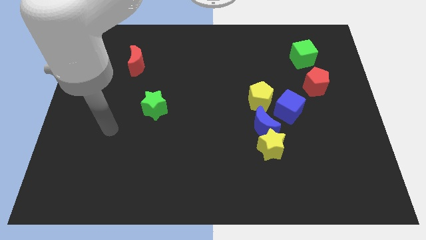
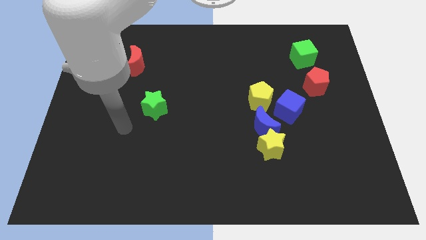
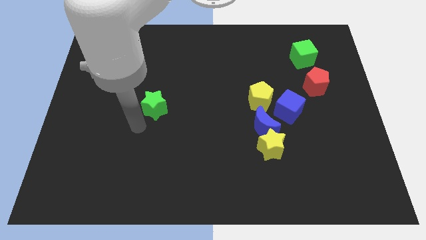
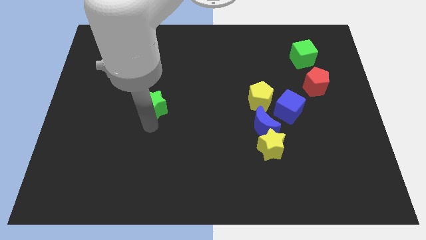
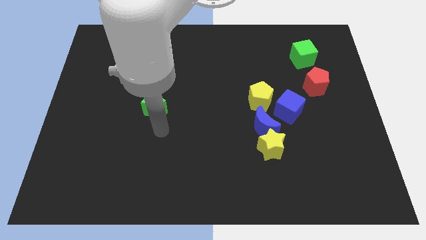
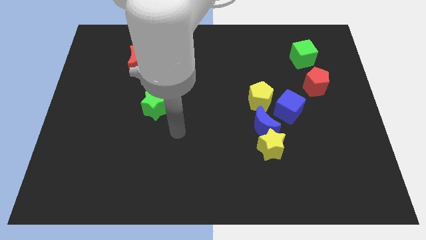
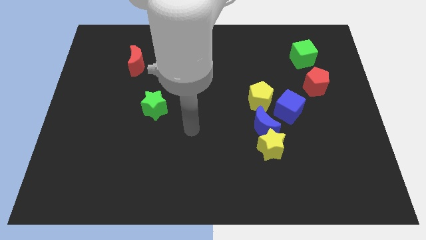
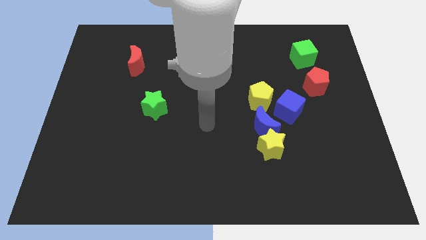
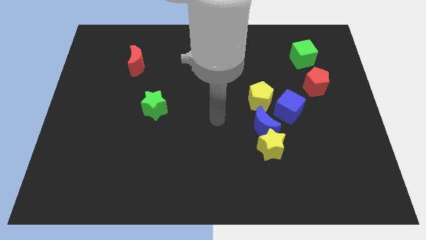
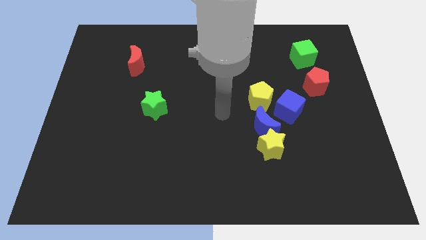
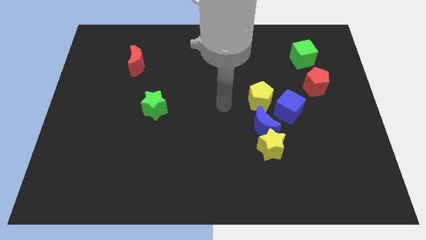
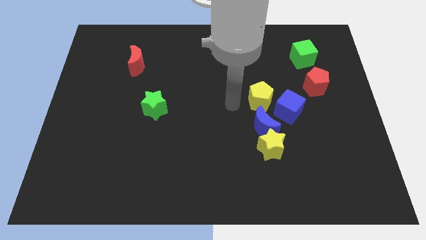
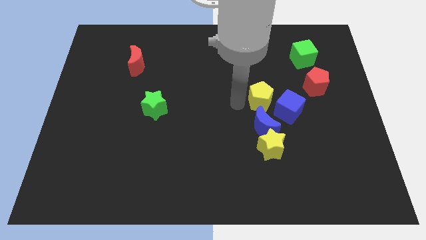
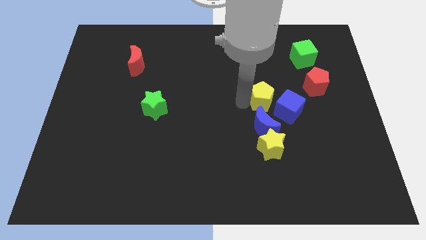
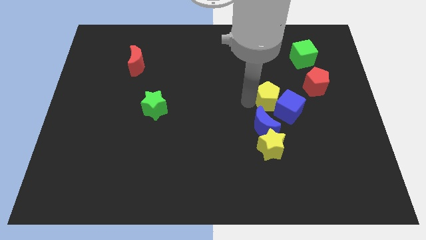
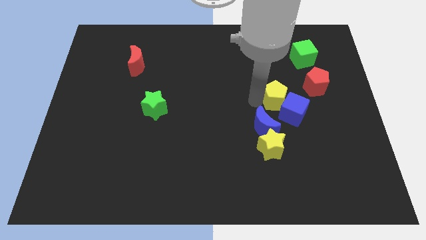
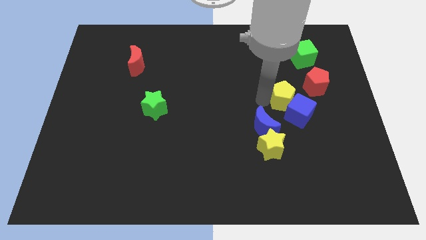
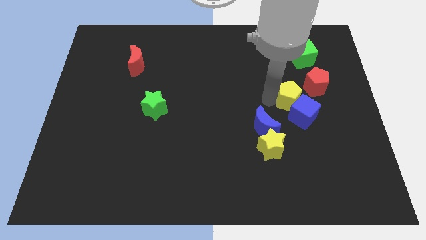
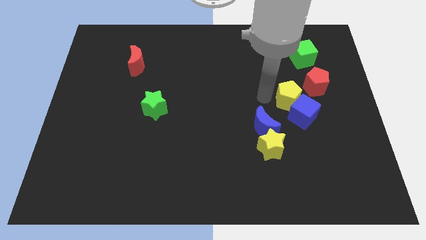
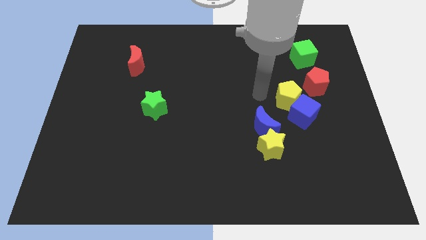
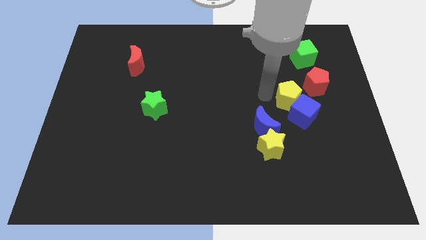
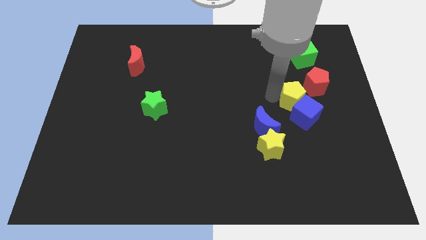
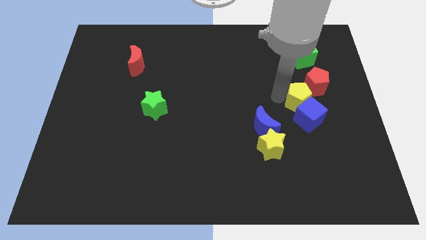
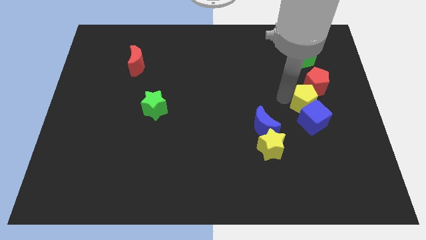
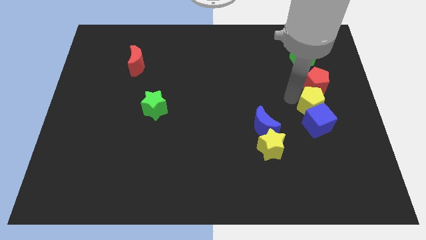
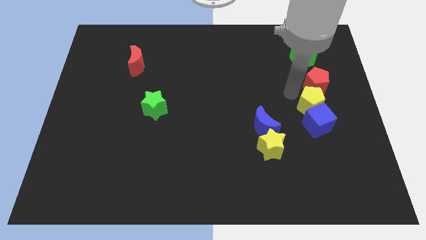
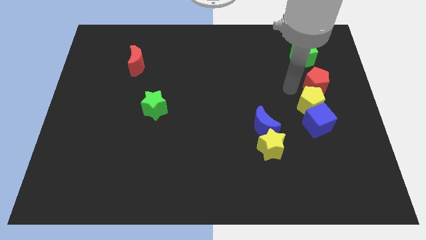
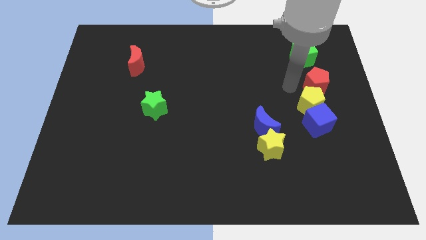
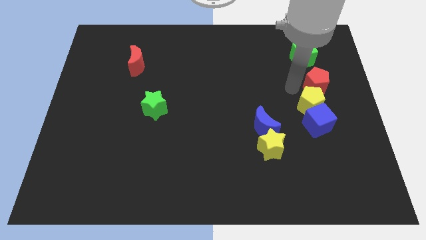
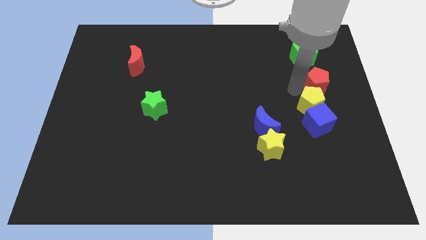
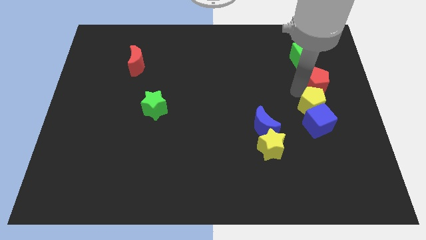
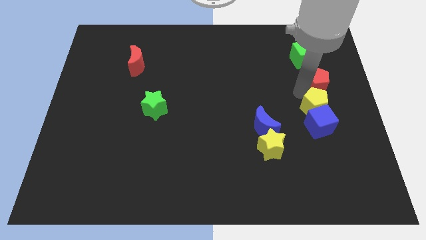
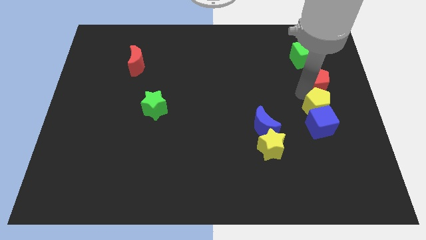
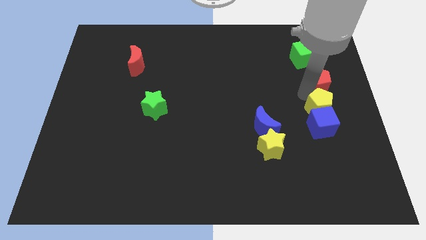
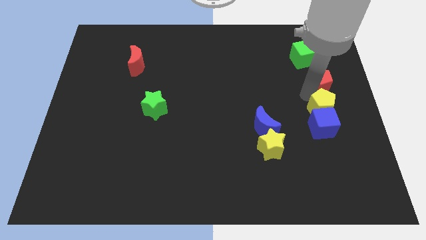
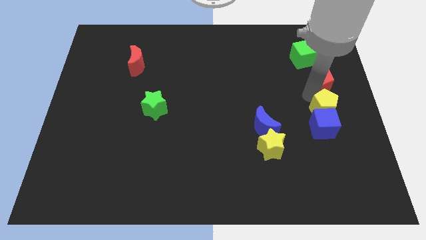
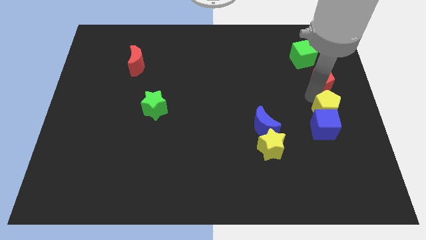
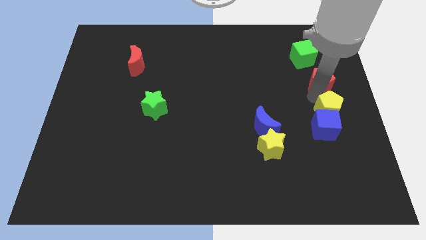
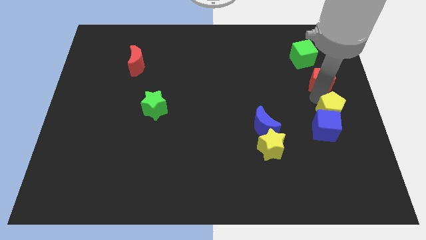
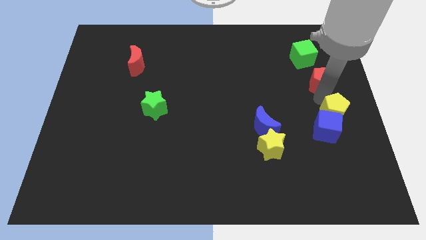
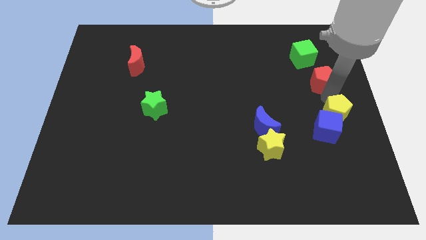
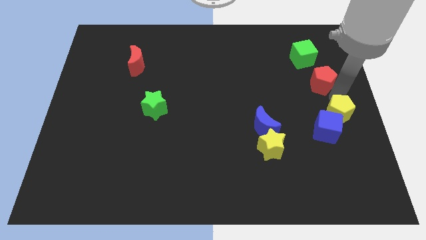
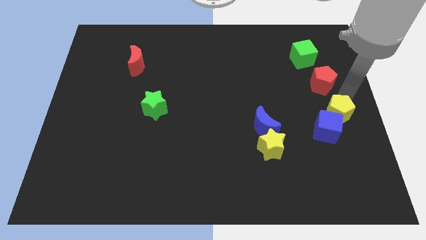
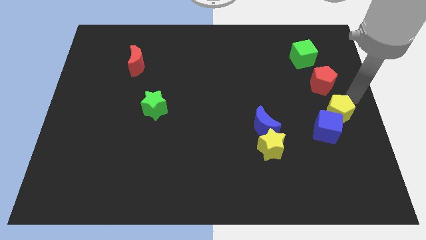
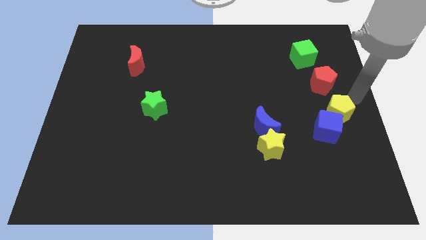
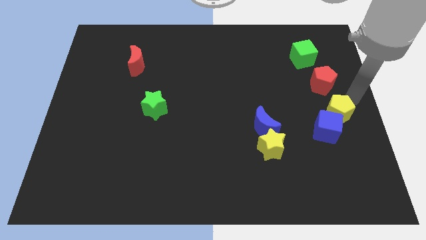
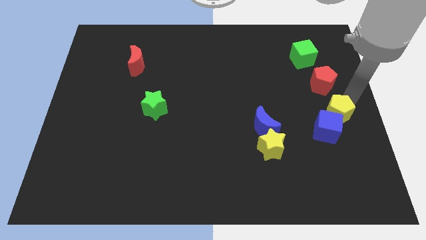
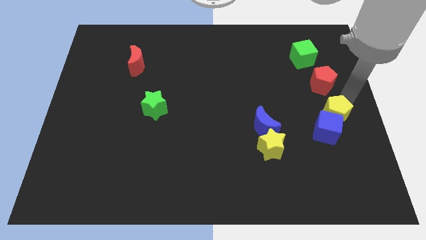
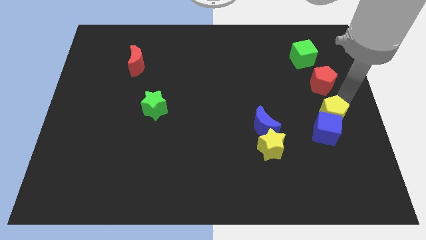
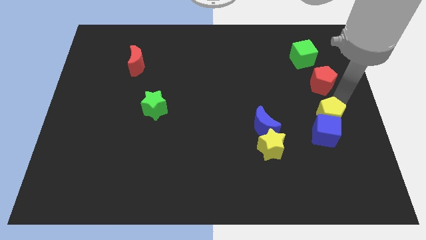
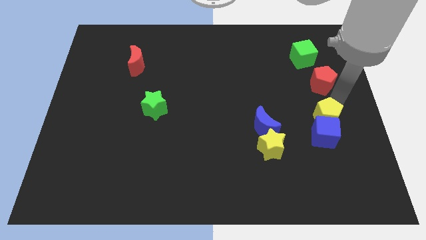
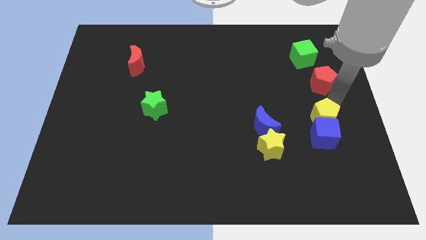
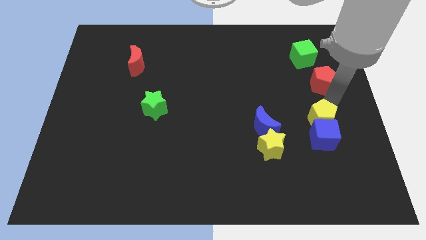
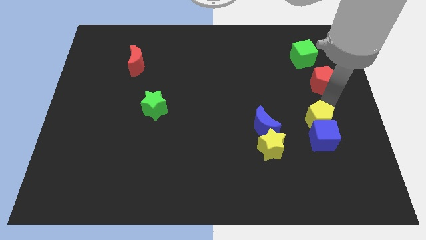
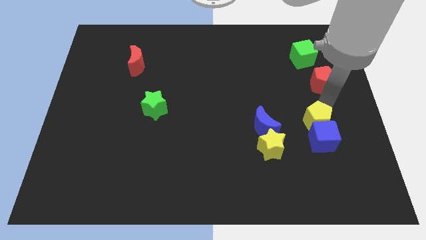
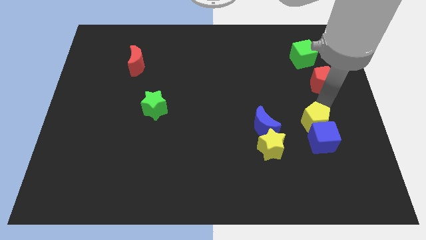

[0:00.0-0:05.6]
push the yellow pentagon to the top right side of the yellow star

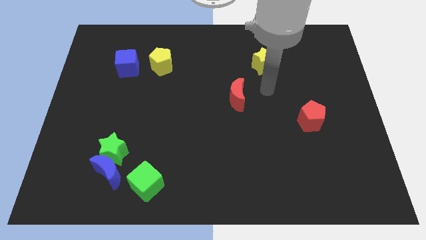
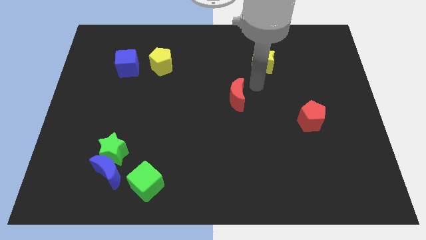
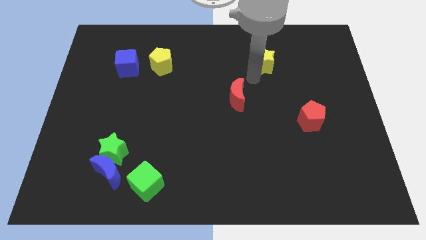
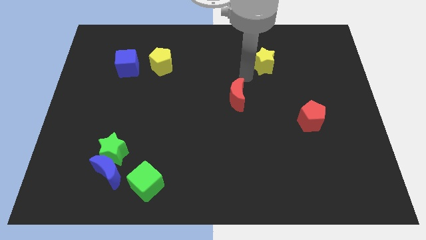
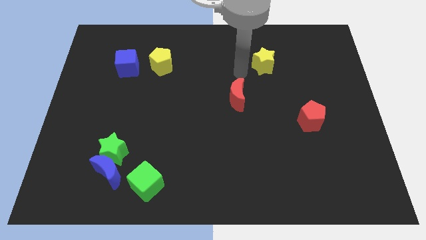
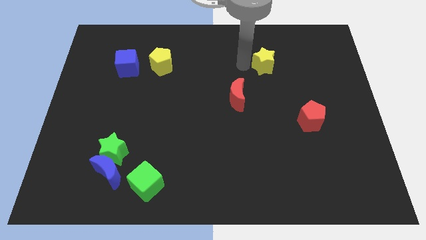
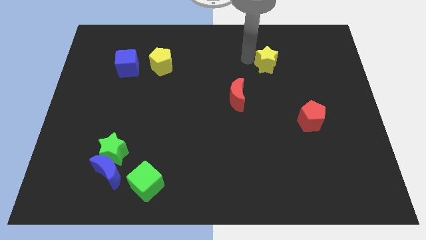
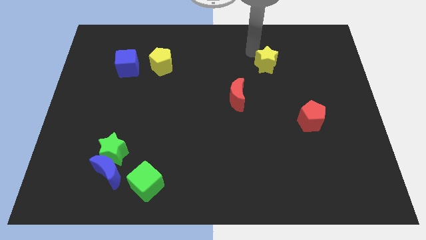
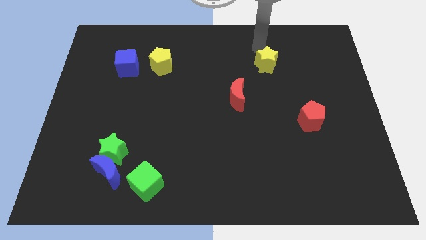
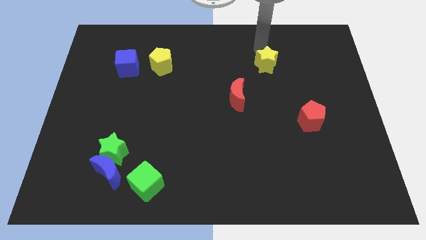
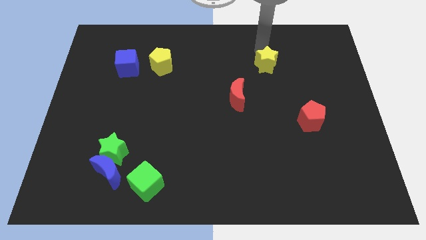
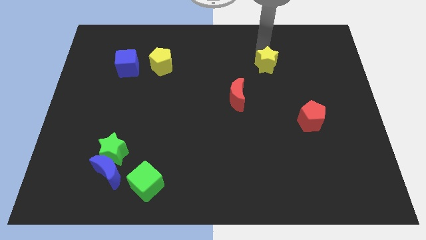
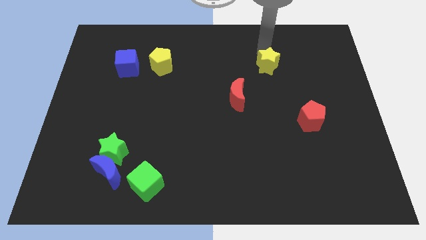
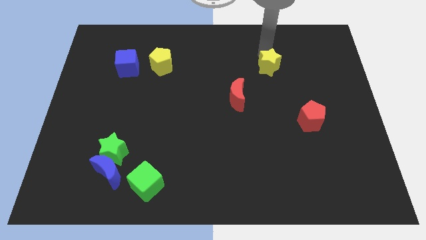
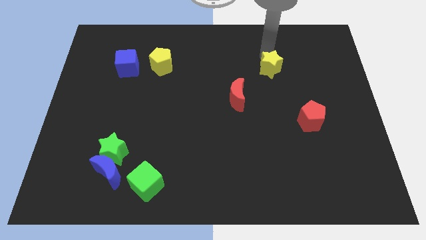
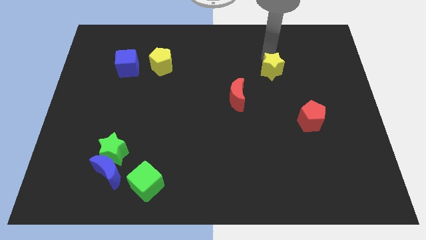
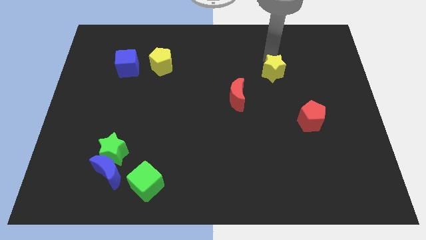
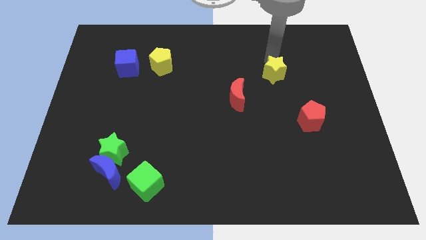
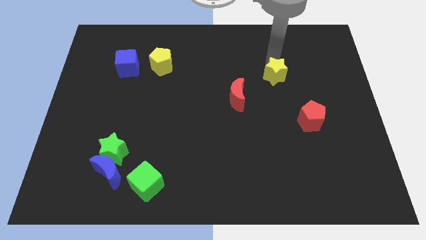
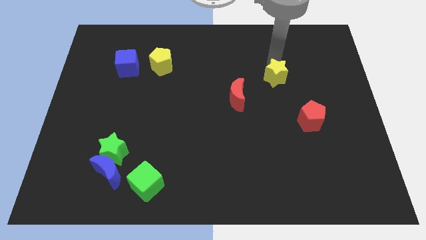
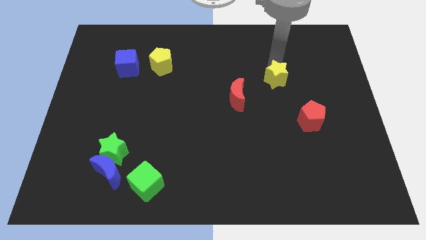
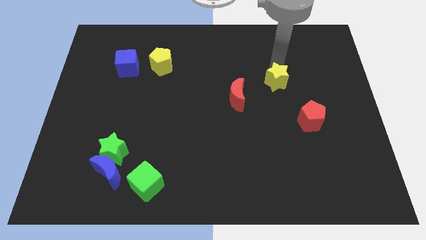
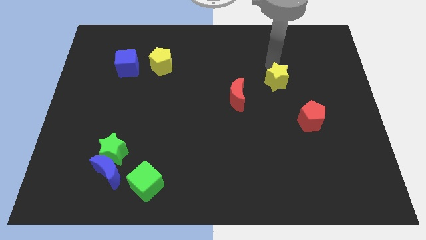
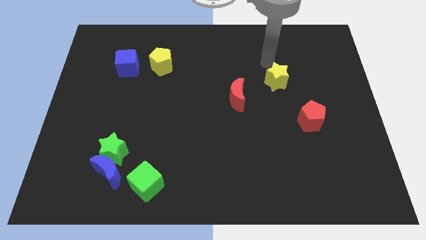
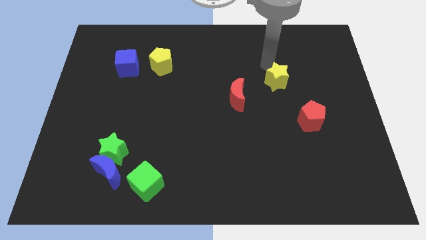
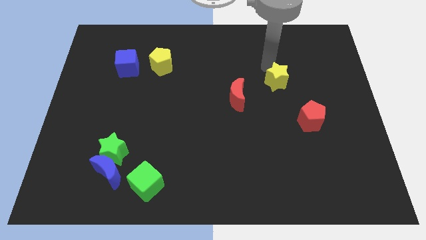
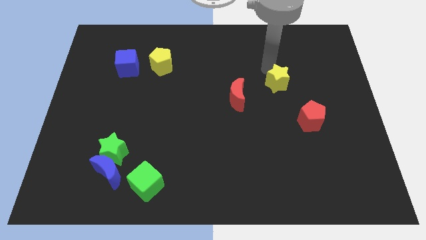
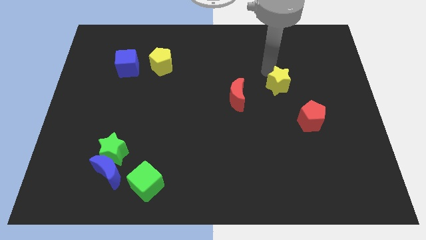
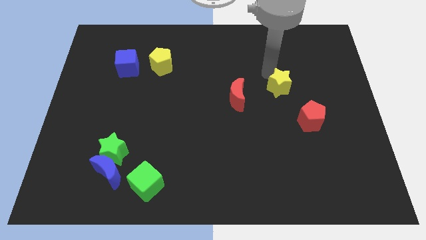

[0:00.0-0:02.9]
move the yellow star diagonally up and to the left of the red pentagon
